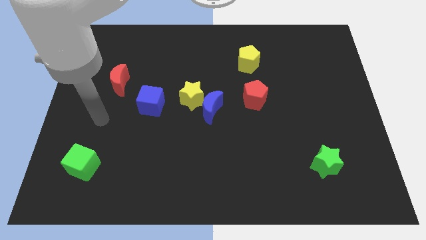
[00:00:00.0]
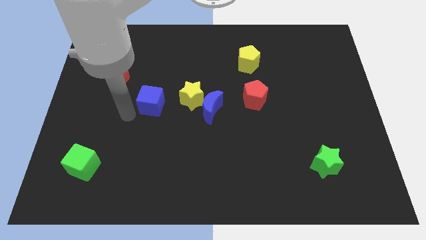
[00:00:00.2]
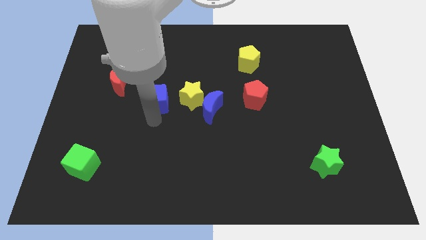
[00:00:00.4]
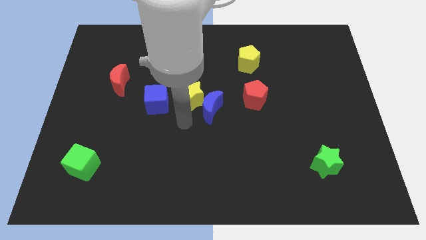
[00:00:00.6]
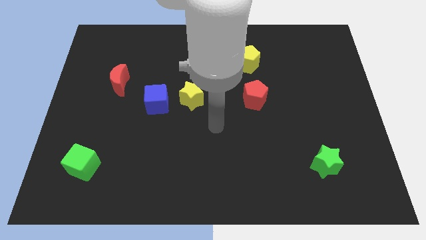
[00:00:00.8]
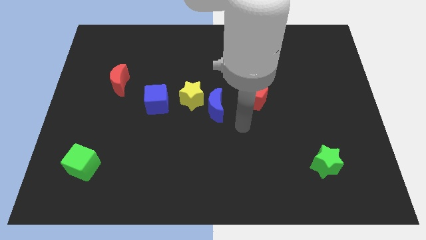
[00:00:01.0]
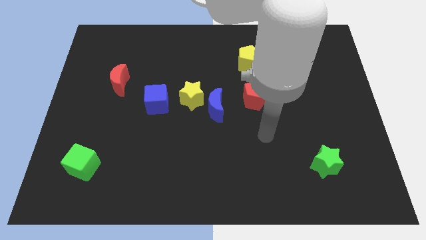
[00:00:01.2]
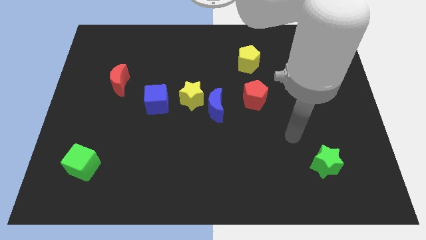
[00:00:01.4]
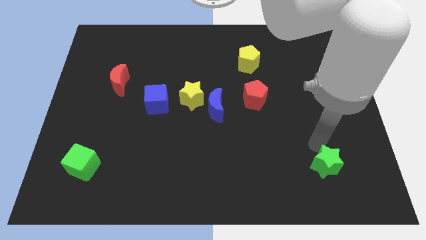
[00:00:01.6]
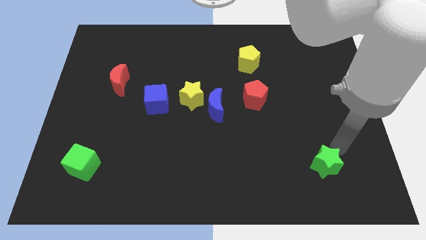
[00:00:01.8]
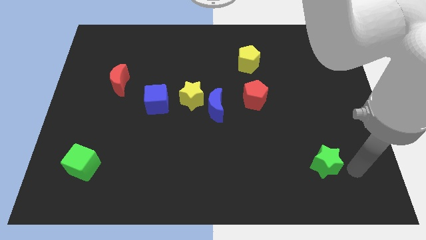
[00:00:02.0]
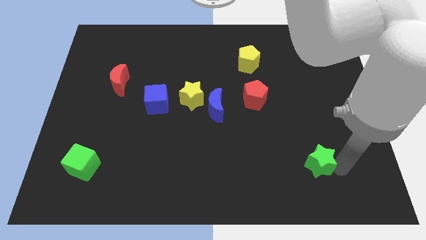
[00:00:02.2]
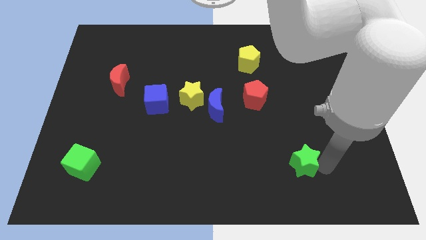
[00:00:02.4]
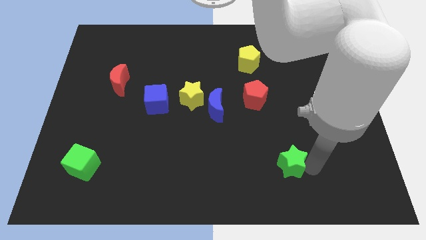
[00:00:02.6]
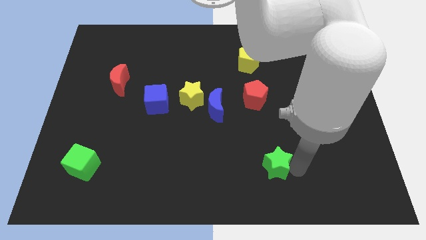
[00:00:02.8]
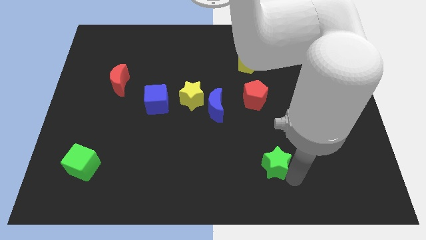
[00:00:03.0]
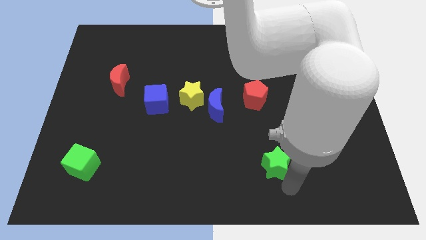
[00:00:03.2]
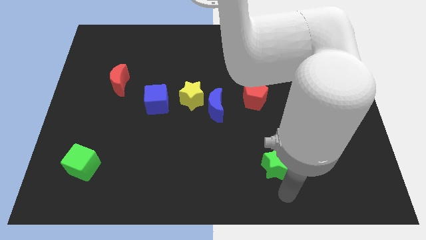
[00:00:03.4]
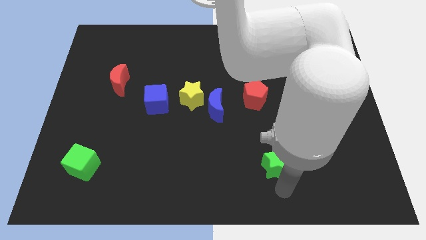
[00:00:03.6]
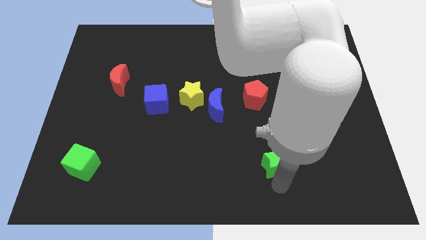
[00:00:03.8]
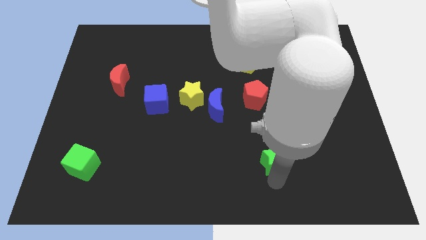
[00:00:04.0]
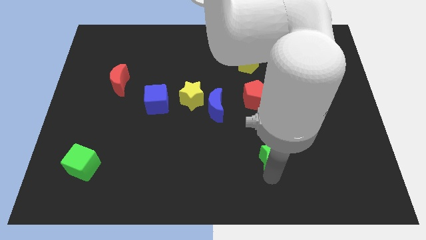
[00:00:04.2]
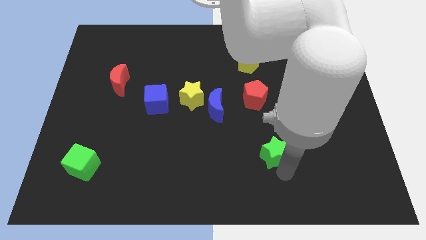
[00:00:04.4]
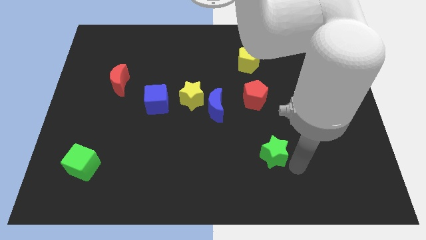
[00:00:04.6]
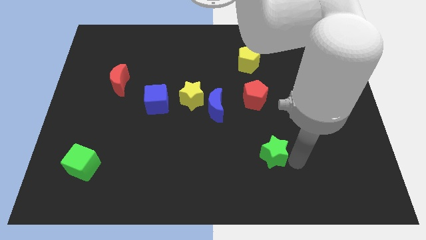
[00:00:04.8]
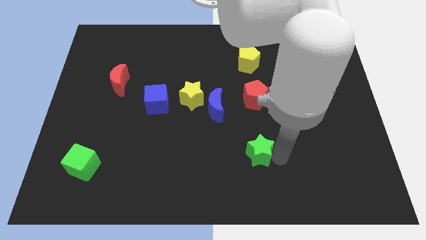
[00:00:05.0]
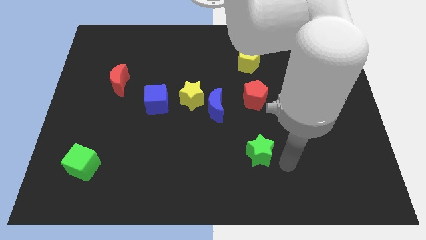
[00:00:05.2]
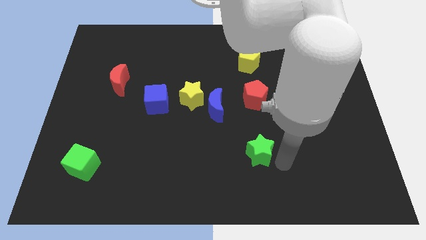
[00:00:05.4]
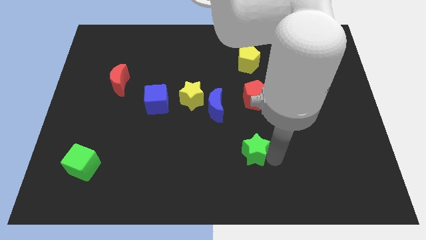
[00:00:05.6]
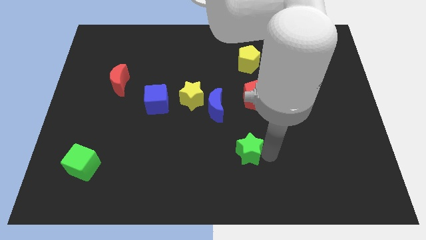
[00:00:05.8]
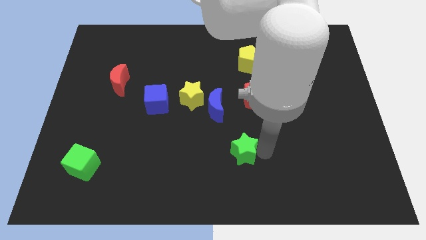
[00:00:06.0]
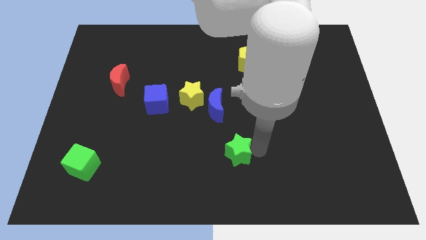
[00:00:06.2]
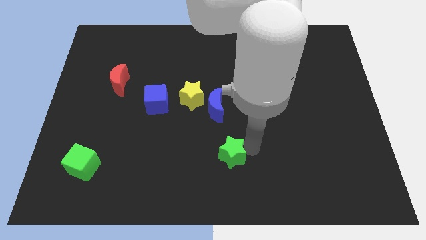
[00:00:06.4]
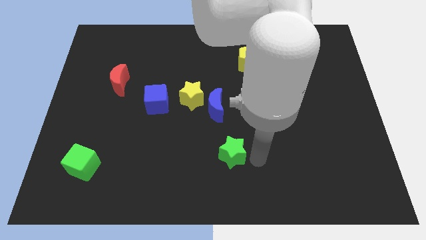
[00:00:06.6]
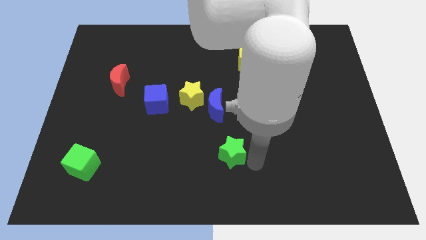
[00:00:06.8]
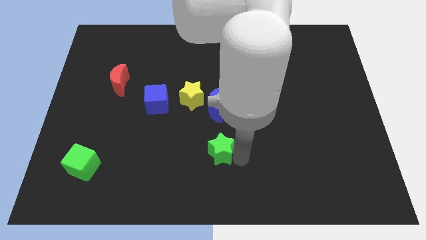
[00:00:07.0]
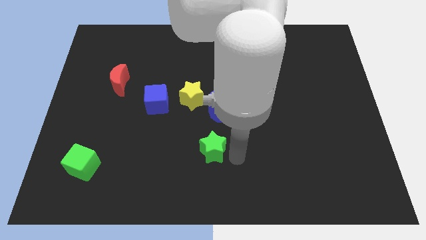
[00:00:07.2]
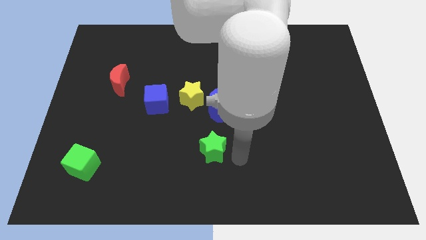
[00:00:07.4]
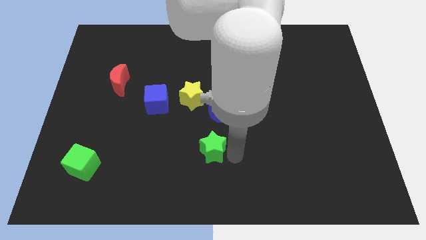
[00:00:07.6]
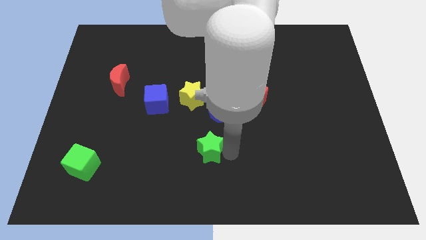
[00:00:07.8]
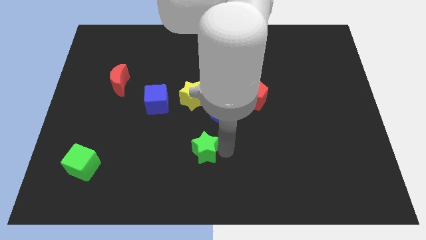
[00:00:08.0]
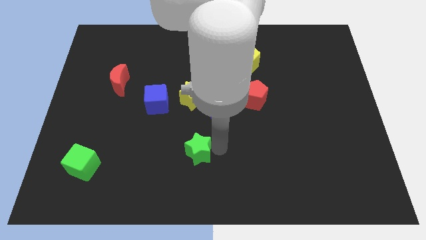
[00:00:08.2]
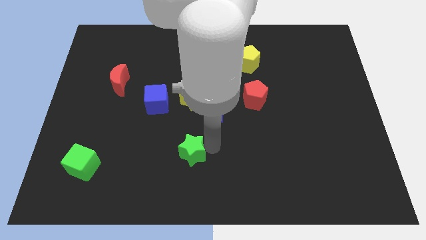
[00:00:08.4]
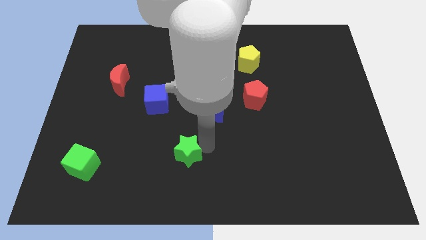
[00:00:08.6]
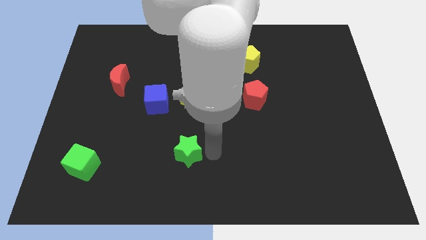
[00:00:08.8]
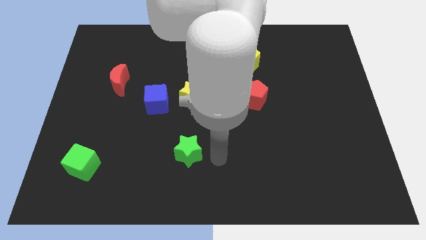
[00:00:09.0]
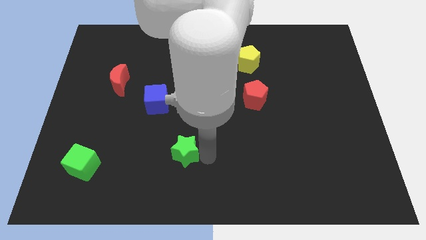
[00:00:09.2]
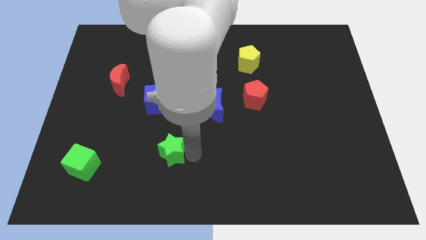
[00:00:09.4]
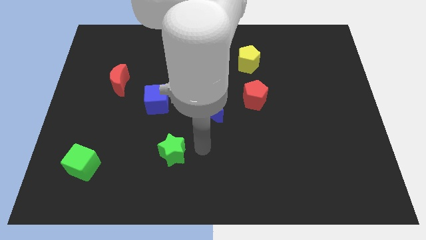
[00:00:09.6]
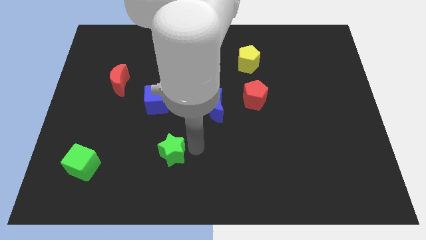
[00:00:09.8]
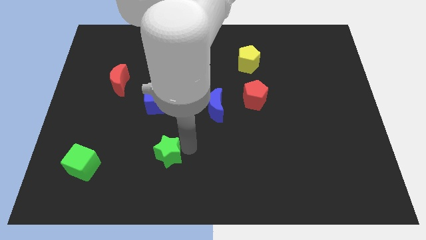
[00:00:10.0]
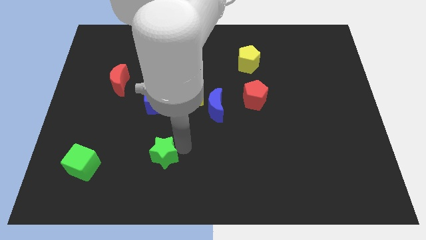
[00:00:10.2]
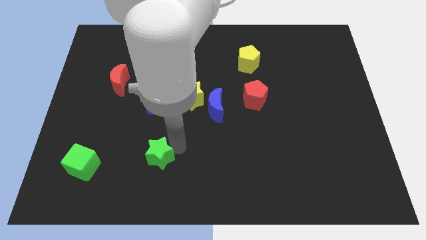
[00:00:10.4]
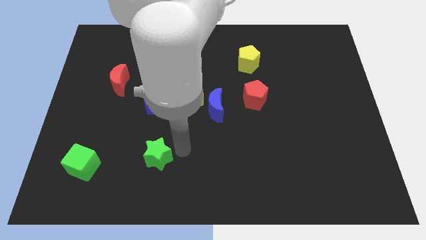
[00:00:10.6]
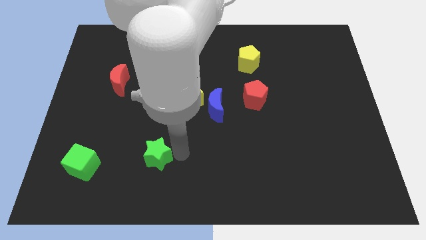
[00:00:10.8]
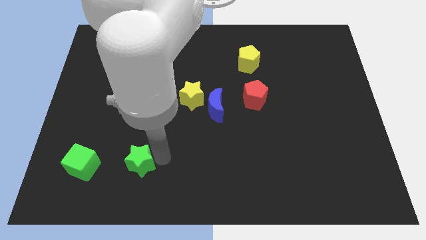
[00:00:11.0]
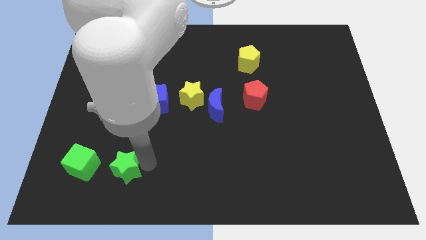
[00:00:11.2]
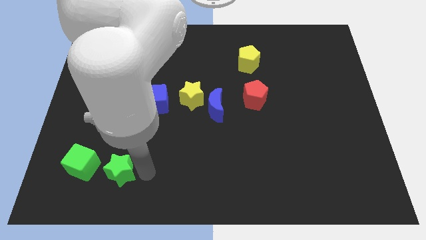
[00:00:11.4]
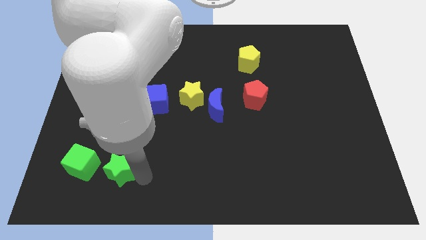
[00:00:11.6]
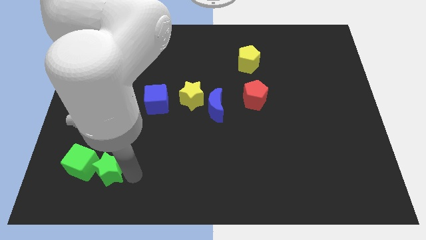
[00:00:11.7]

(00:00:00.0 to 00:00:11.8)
move the green star close to the green cube
